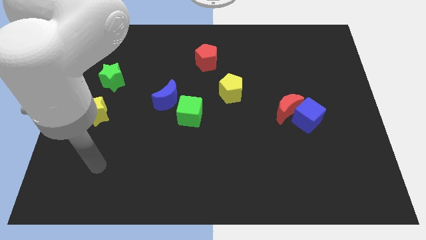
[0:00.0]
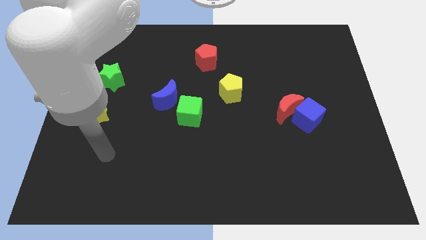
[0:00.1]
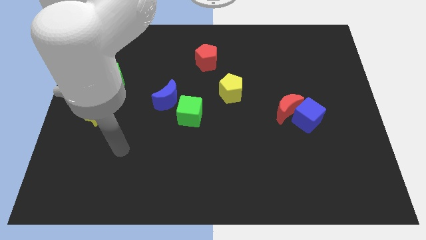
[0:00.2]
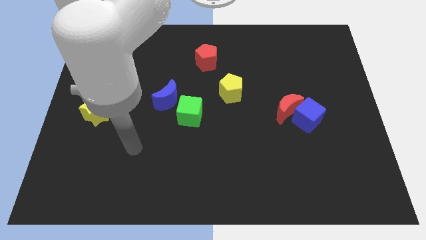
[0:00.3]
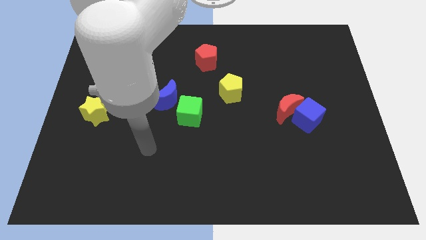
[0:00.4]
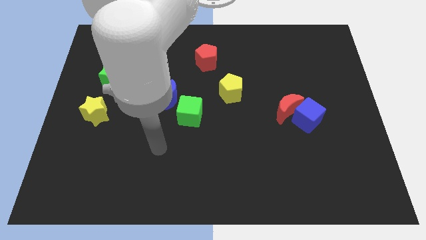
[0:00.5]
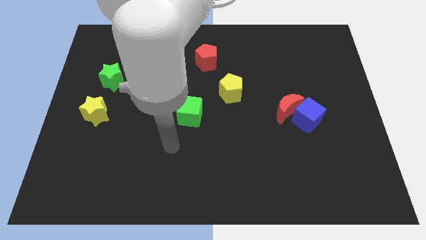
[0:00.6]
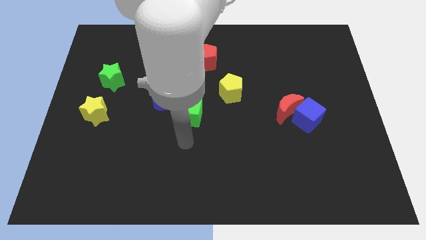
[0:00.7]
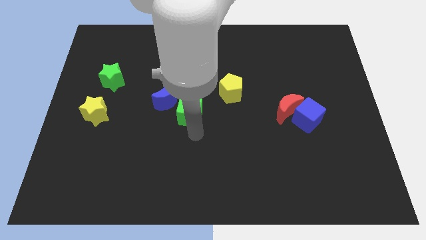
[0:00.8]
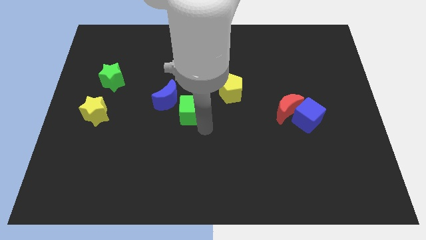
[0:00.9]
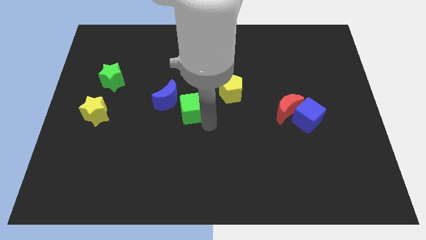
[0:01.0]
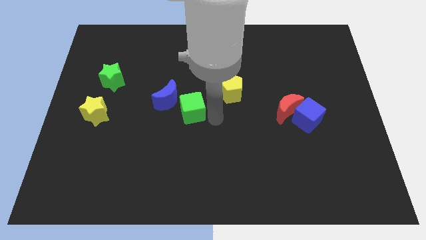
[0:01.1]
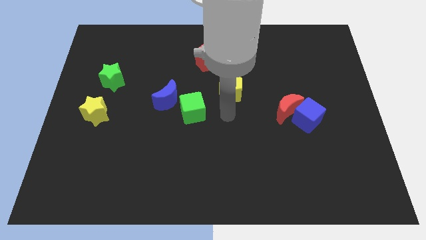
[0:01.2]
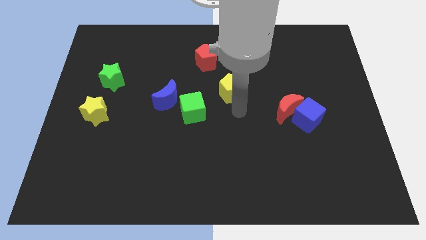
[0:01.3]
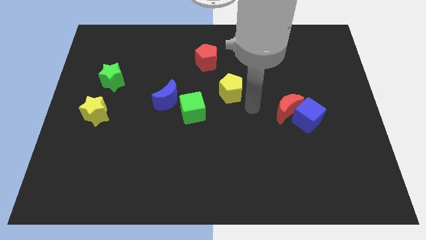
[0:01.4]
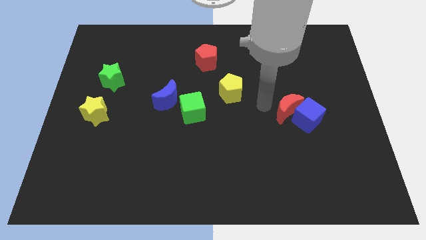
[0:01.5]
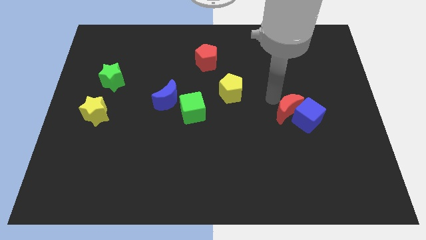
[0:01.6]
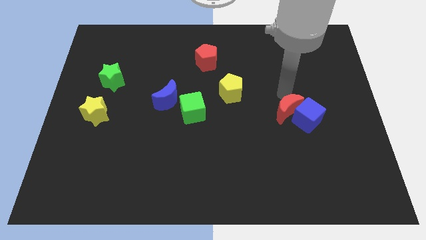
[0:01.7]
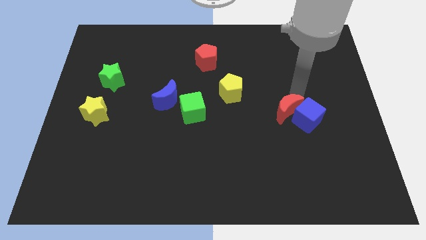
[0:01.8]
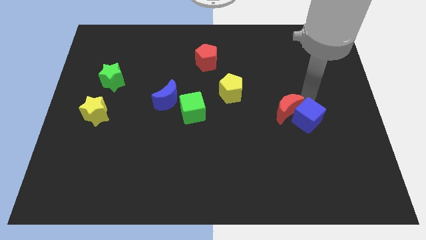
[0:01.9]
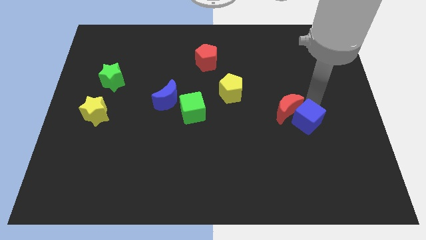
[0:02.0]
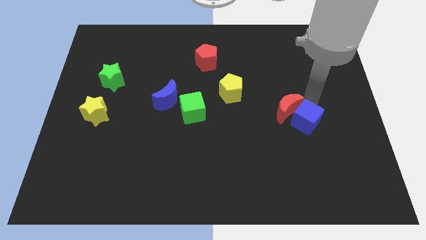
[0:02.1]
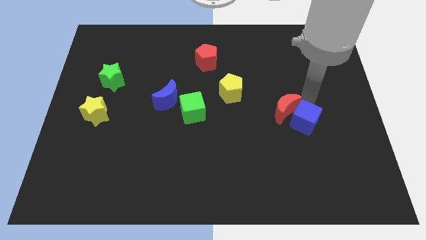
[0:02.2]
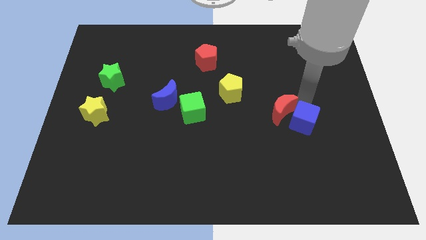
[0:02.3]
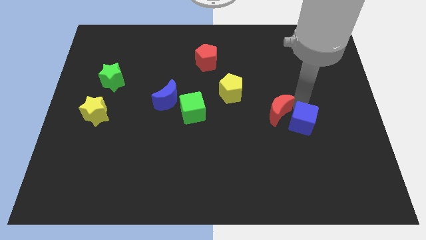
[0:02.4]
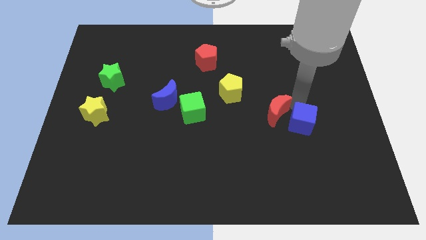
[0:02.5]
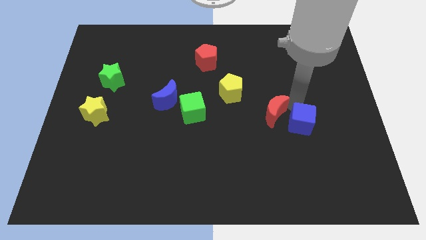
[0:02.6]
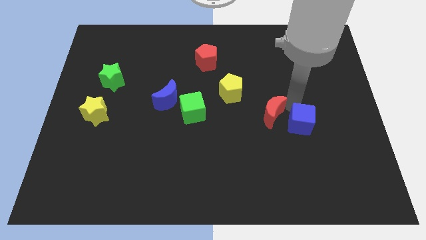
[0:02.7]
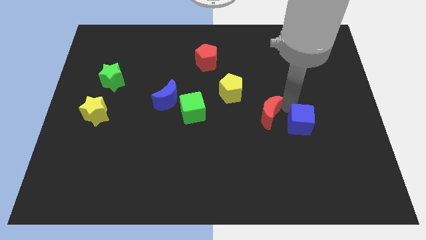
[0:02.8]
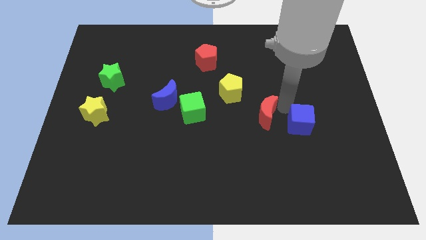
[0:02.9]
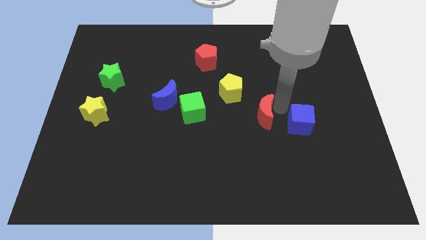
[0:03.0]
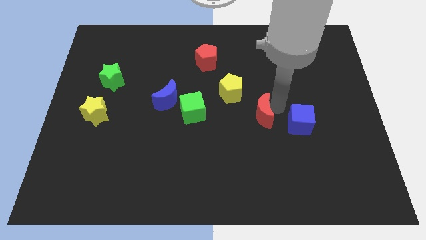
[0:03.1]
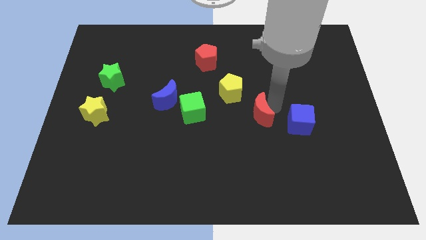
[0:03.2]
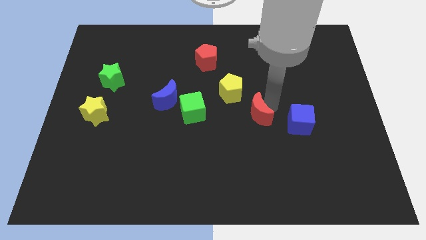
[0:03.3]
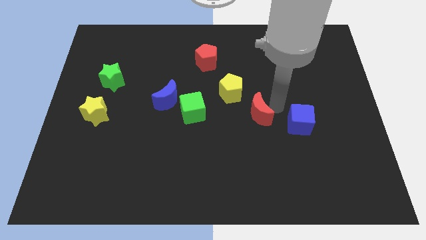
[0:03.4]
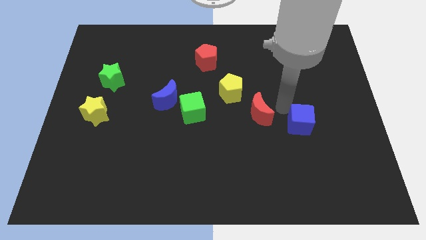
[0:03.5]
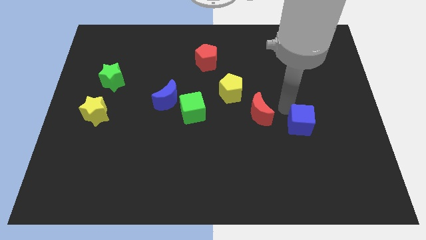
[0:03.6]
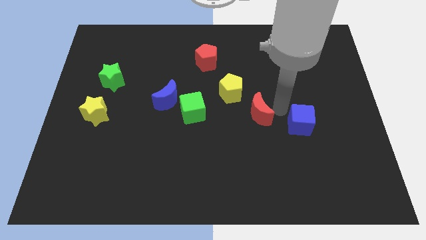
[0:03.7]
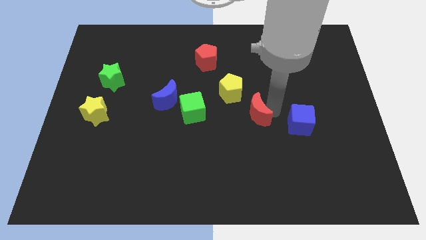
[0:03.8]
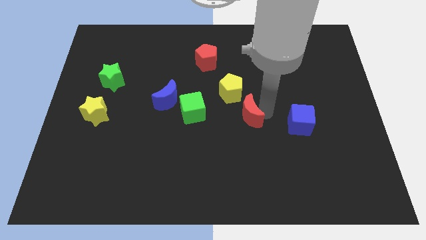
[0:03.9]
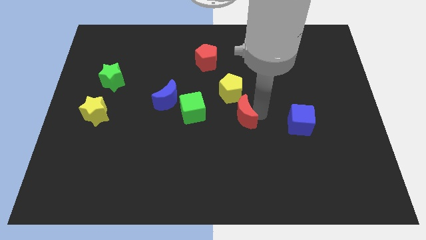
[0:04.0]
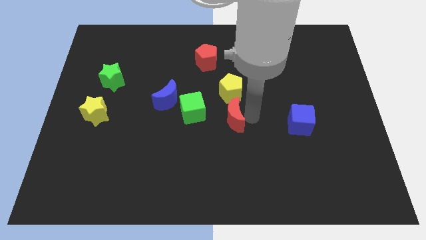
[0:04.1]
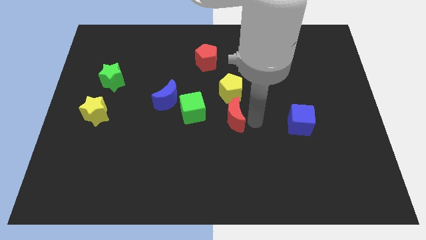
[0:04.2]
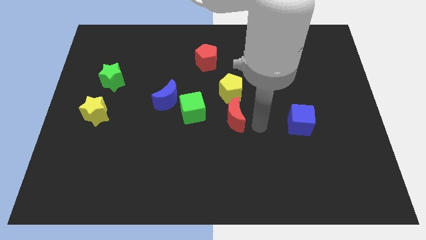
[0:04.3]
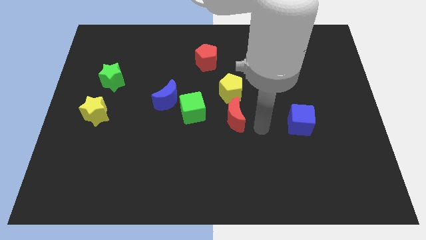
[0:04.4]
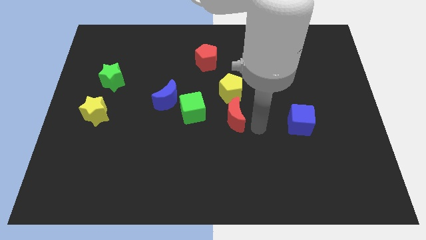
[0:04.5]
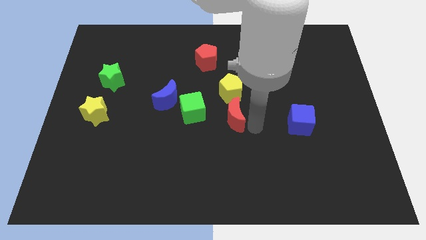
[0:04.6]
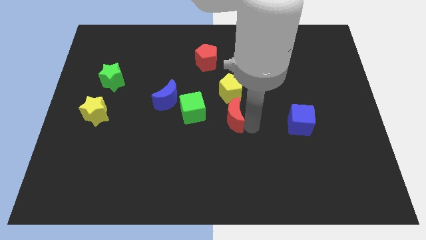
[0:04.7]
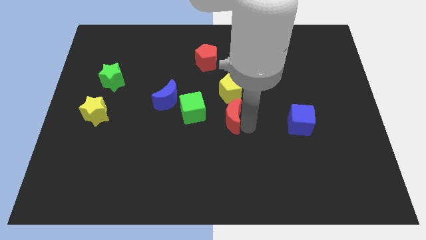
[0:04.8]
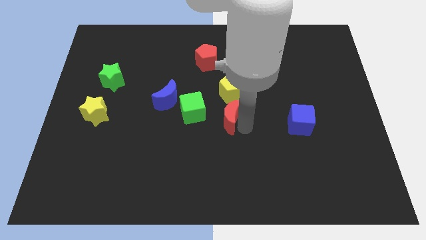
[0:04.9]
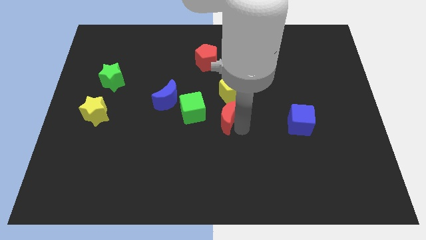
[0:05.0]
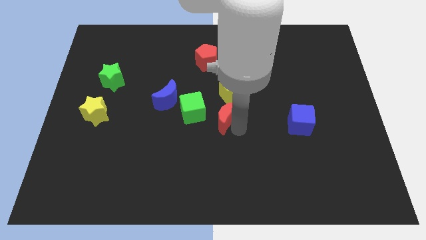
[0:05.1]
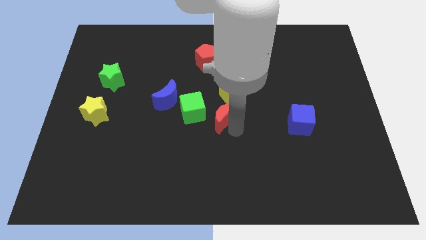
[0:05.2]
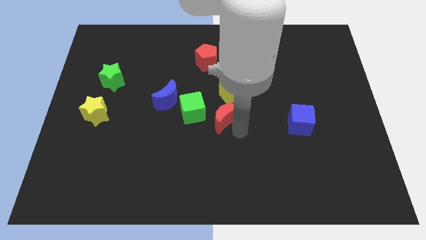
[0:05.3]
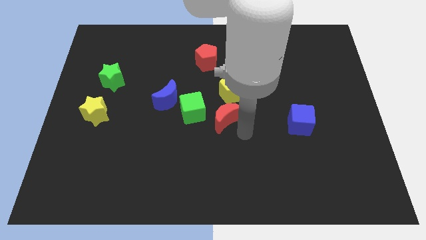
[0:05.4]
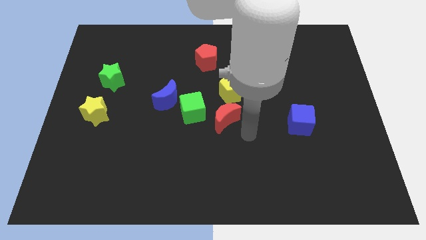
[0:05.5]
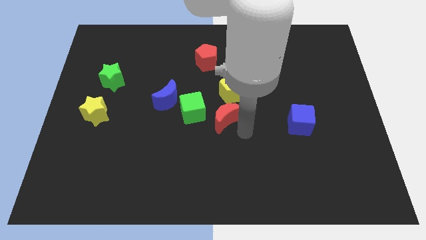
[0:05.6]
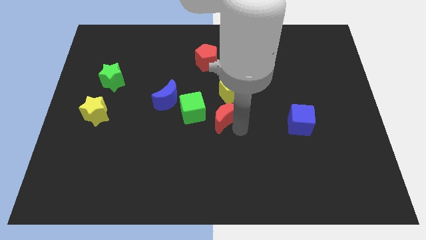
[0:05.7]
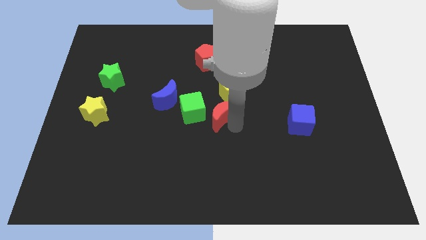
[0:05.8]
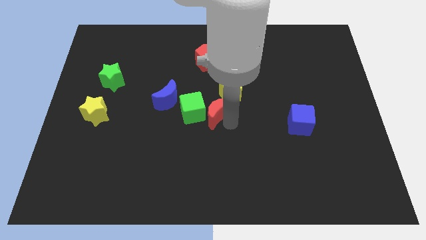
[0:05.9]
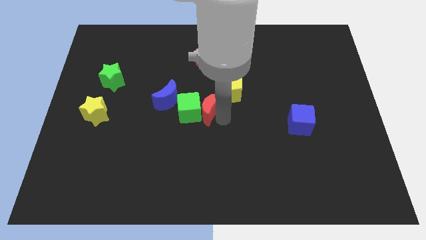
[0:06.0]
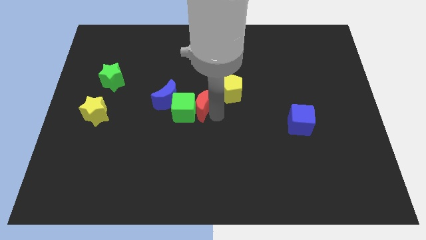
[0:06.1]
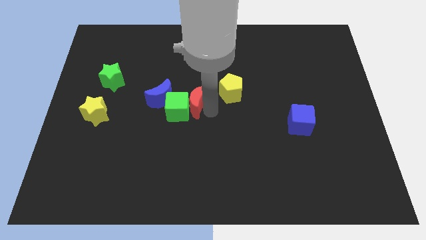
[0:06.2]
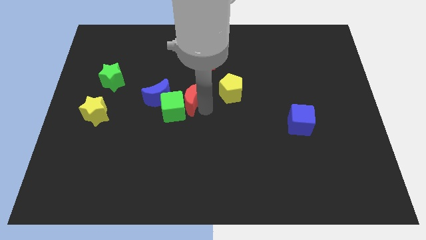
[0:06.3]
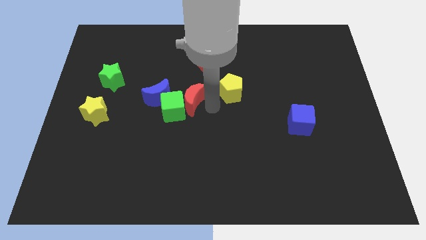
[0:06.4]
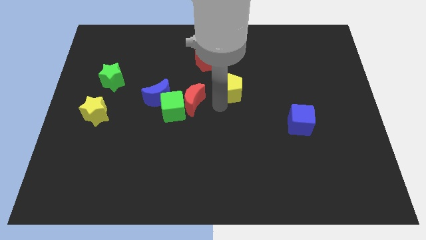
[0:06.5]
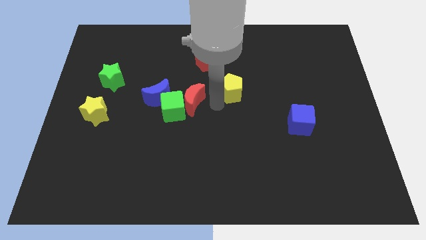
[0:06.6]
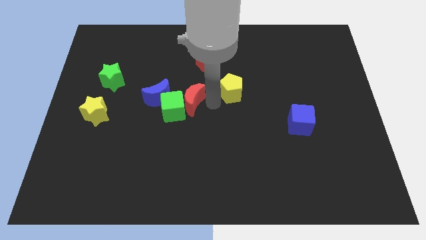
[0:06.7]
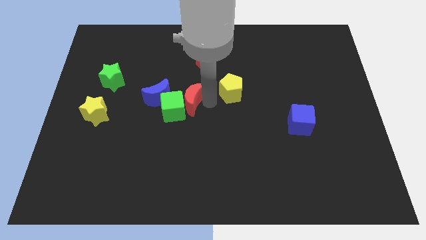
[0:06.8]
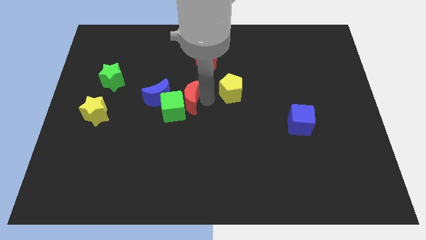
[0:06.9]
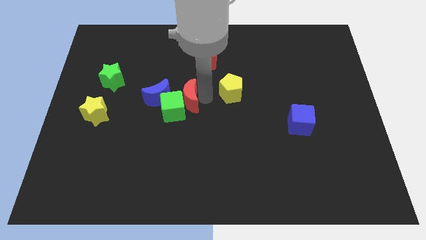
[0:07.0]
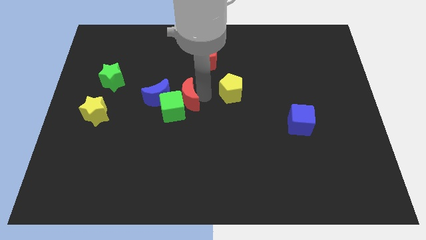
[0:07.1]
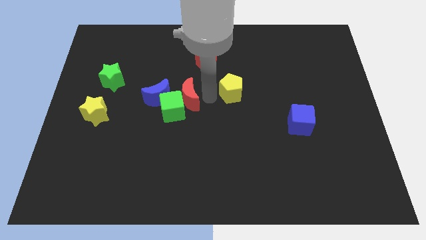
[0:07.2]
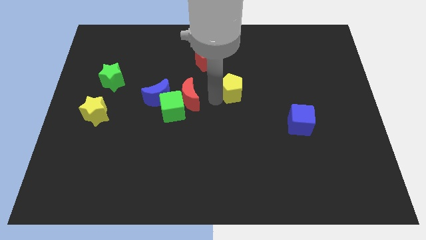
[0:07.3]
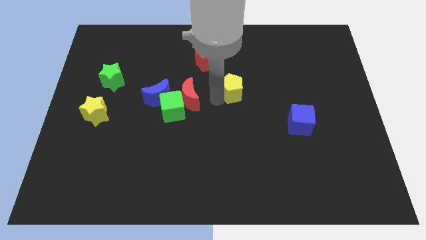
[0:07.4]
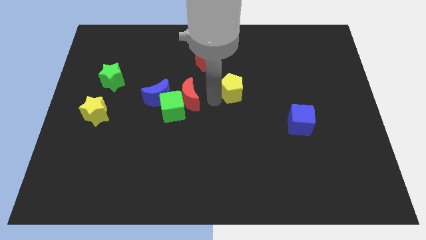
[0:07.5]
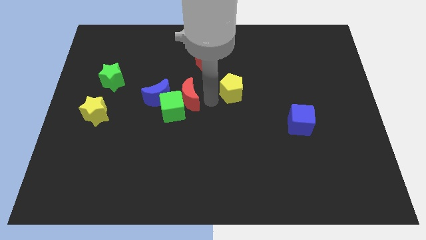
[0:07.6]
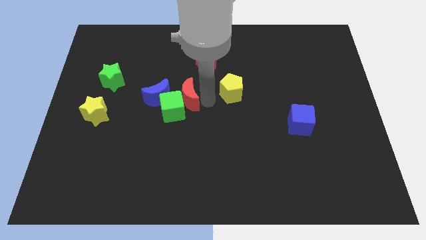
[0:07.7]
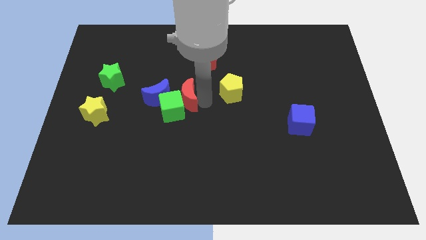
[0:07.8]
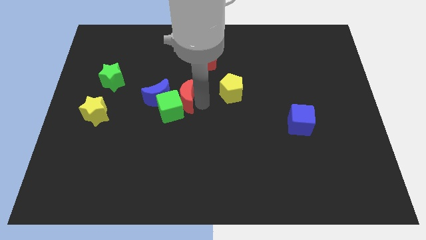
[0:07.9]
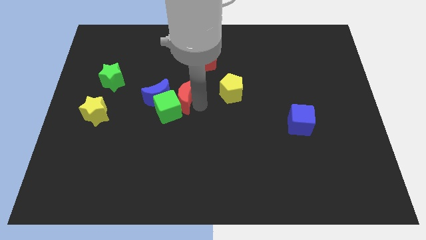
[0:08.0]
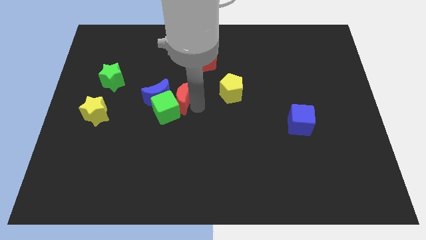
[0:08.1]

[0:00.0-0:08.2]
move the red moon towards the blue moon
